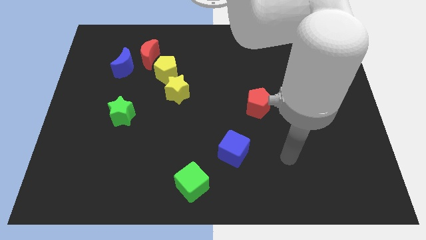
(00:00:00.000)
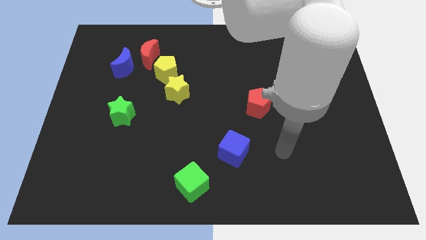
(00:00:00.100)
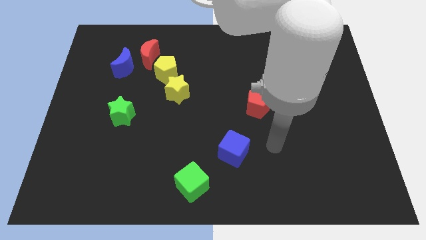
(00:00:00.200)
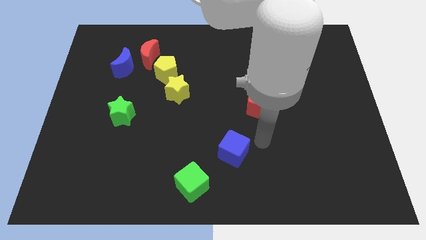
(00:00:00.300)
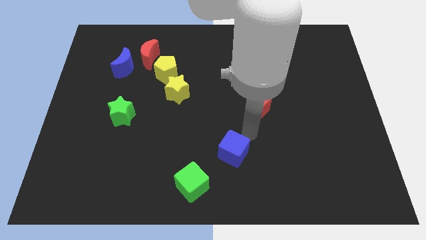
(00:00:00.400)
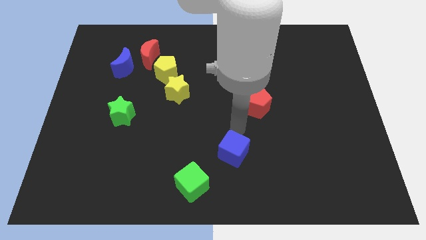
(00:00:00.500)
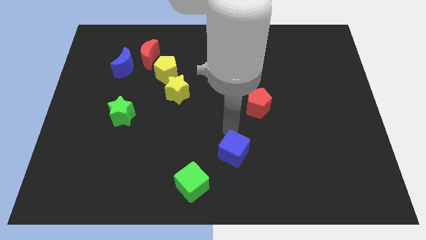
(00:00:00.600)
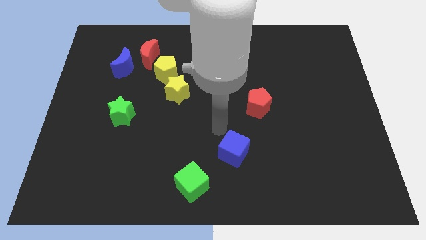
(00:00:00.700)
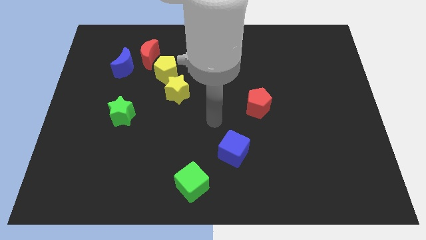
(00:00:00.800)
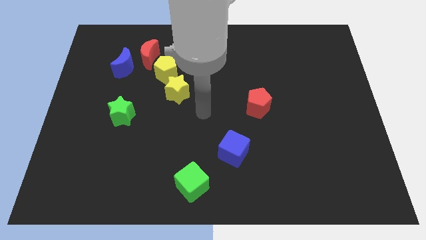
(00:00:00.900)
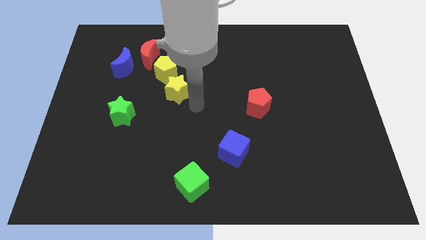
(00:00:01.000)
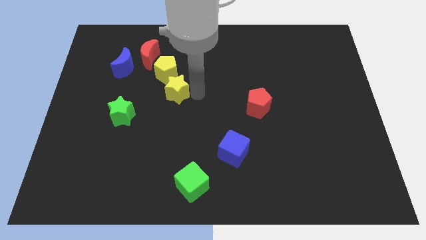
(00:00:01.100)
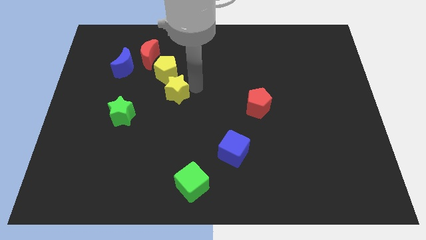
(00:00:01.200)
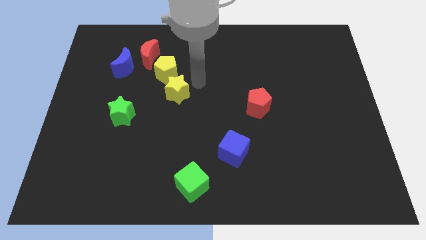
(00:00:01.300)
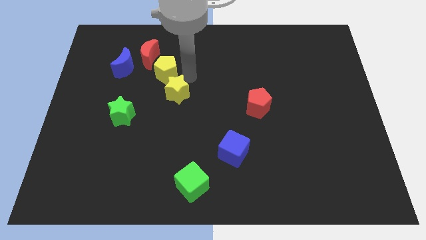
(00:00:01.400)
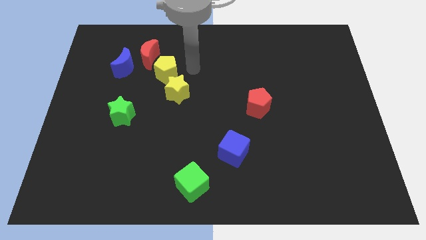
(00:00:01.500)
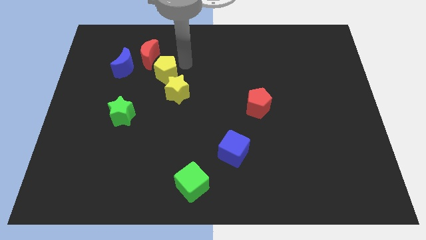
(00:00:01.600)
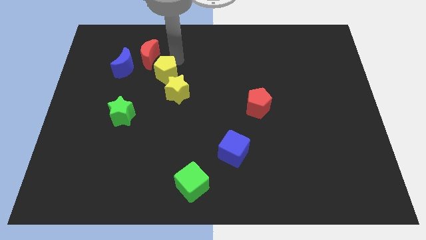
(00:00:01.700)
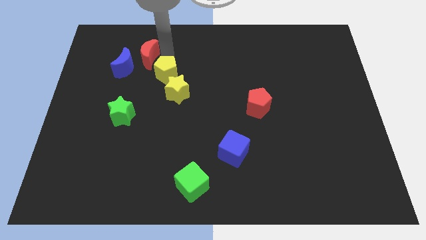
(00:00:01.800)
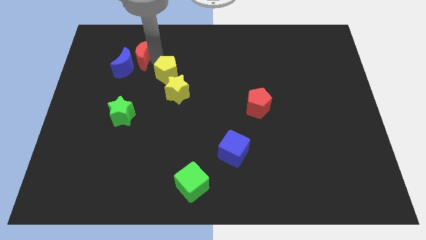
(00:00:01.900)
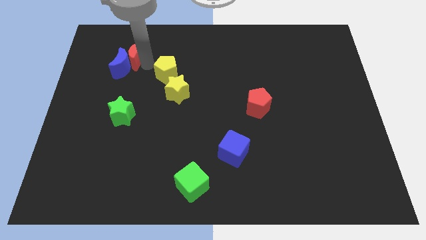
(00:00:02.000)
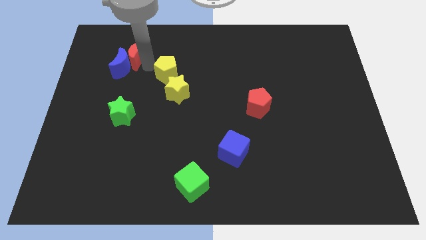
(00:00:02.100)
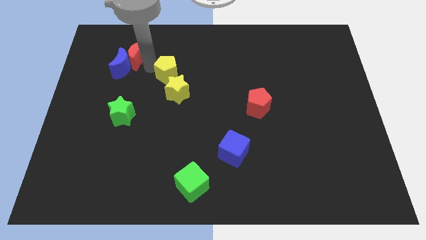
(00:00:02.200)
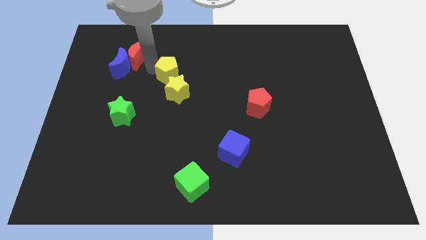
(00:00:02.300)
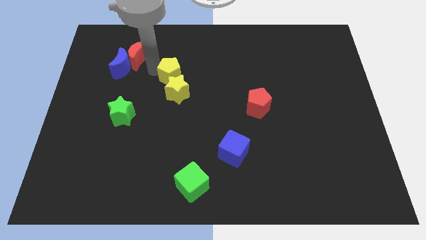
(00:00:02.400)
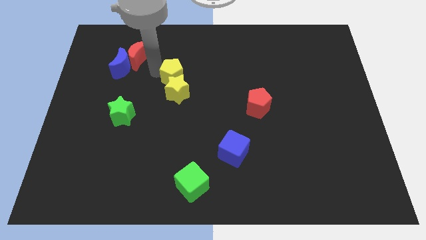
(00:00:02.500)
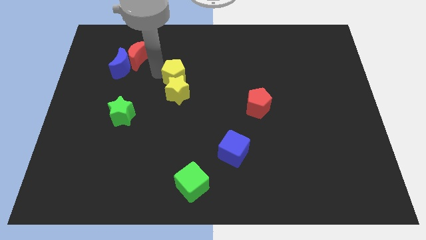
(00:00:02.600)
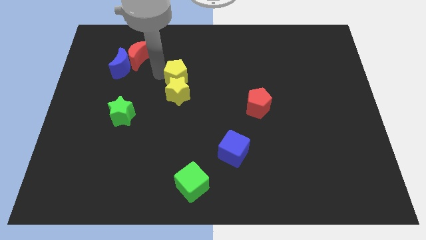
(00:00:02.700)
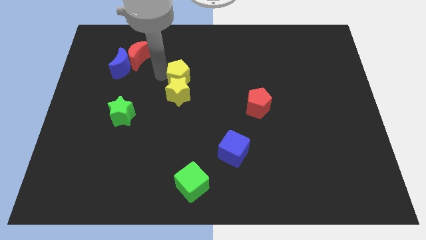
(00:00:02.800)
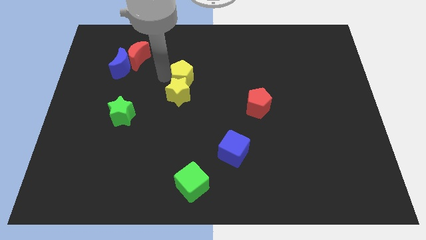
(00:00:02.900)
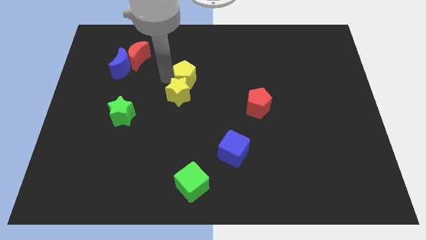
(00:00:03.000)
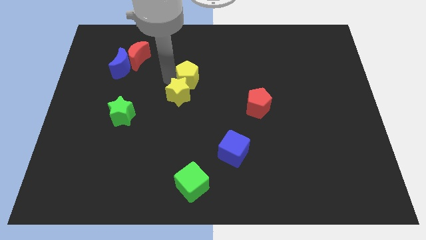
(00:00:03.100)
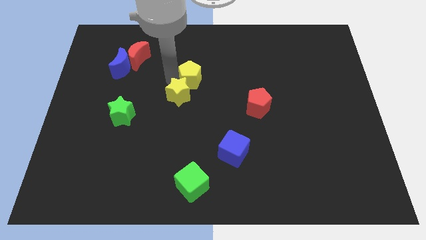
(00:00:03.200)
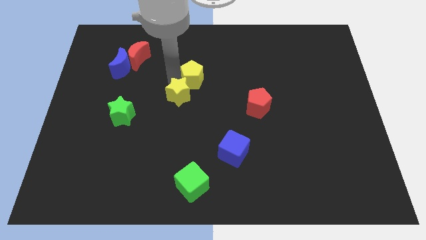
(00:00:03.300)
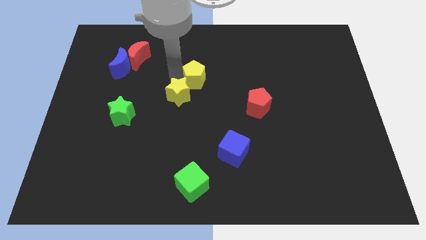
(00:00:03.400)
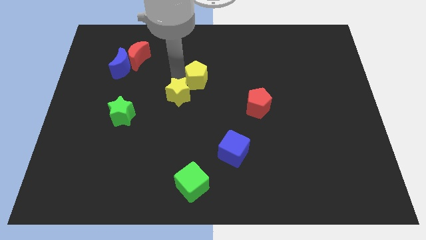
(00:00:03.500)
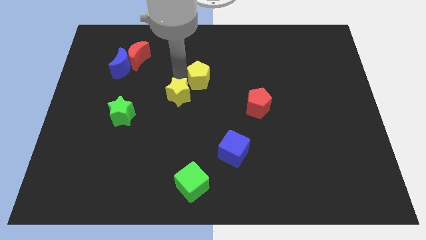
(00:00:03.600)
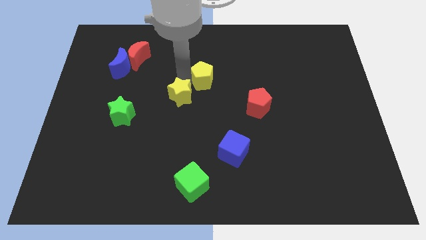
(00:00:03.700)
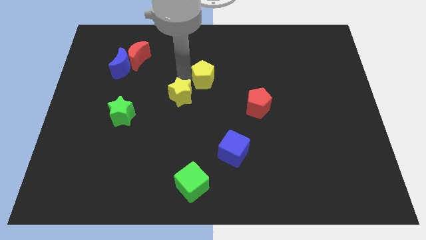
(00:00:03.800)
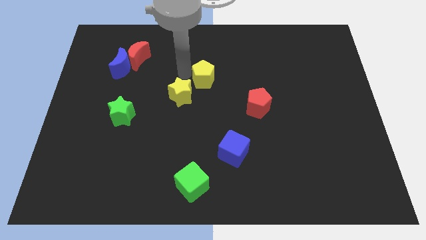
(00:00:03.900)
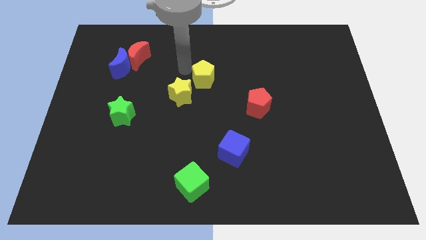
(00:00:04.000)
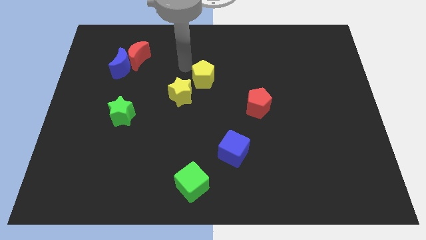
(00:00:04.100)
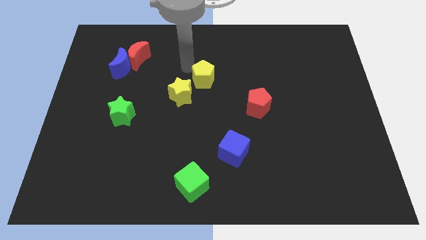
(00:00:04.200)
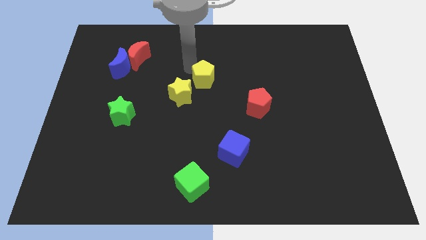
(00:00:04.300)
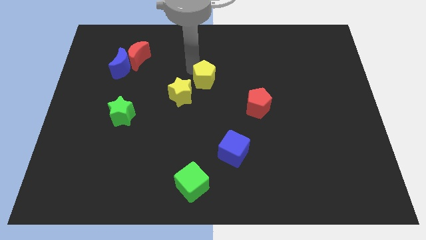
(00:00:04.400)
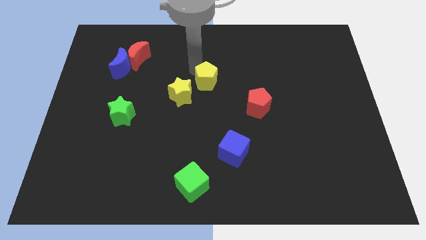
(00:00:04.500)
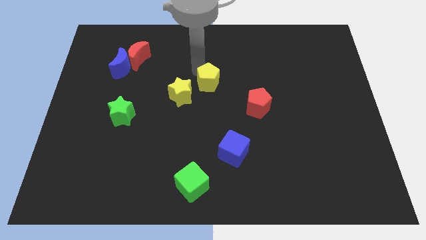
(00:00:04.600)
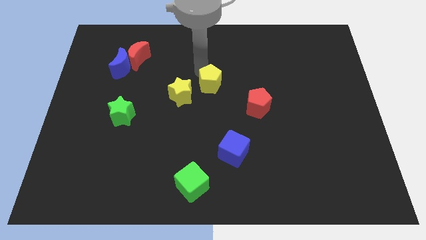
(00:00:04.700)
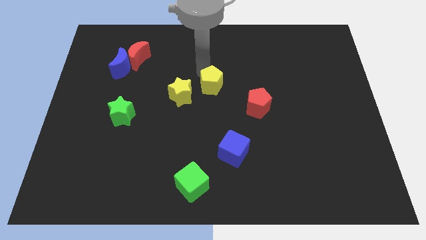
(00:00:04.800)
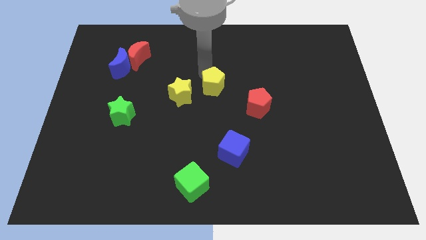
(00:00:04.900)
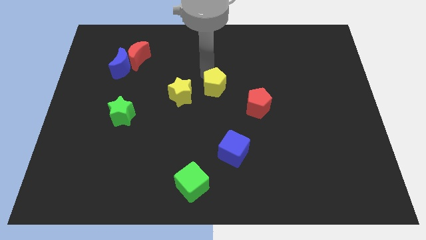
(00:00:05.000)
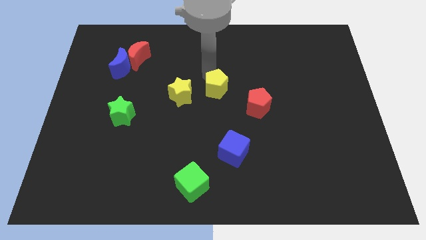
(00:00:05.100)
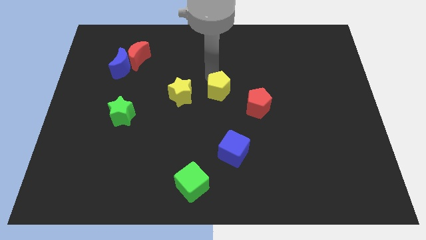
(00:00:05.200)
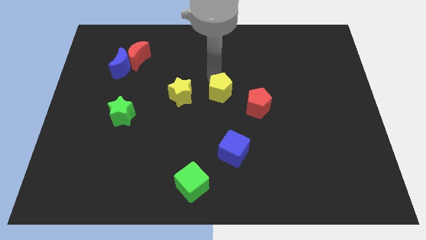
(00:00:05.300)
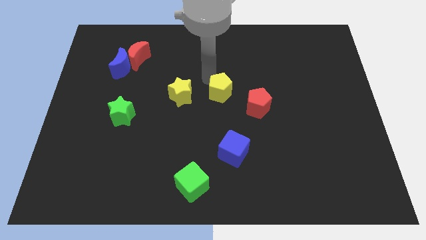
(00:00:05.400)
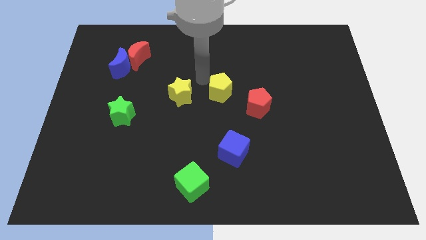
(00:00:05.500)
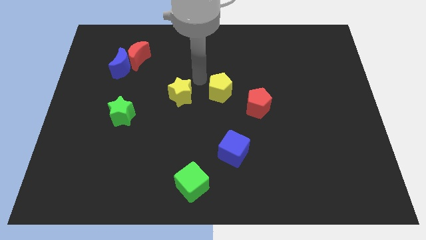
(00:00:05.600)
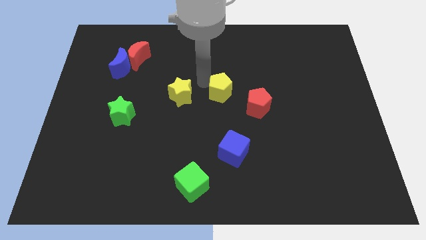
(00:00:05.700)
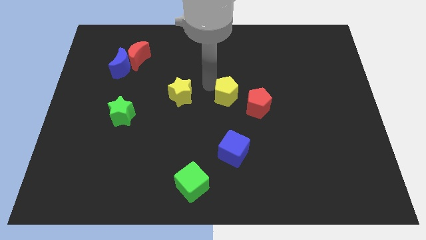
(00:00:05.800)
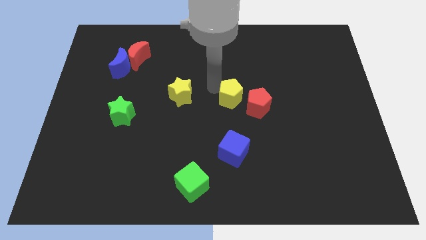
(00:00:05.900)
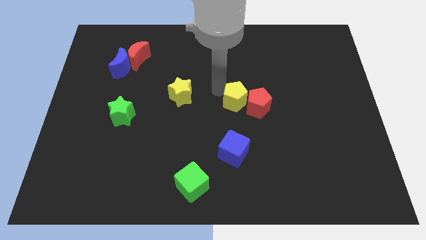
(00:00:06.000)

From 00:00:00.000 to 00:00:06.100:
push the yellow pentagon close to the red pentagon

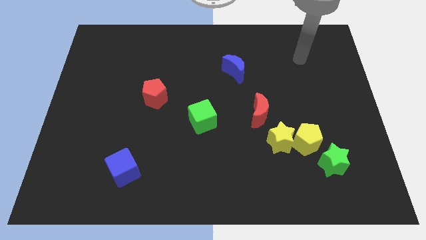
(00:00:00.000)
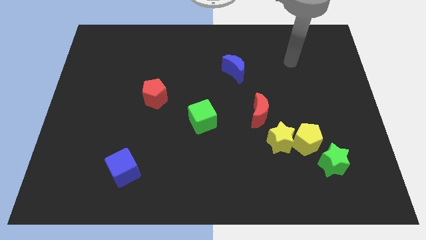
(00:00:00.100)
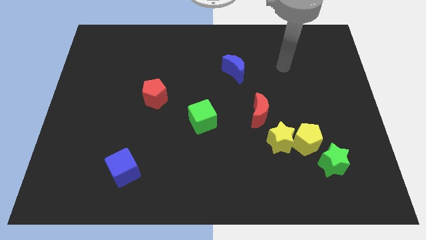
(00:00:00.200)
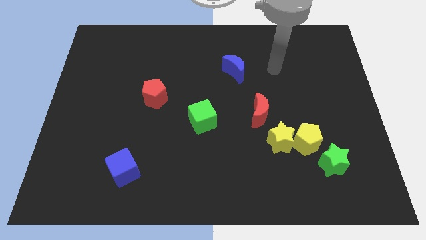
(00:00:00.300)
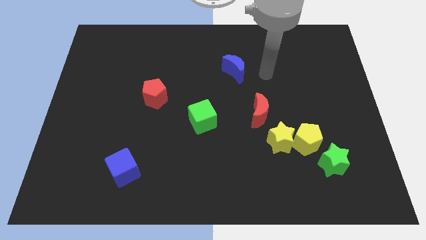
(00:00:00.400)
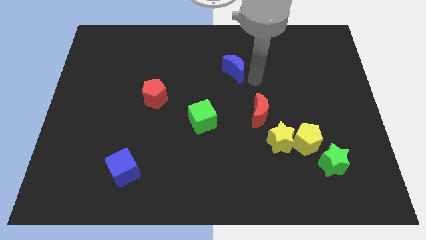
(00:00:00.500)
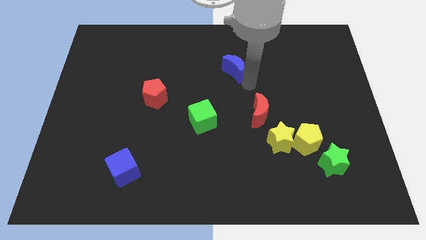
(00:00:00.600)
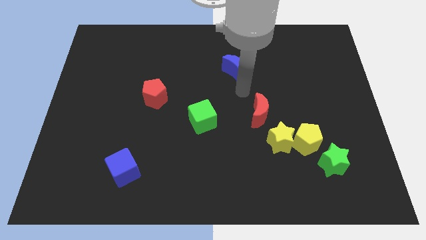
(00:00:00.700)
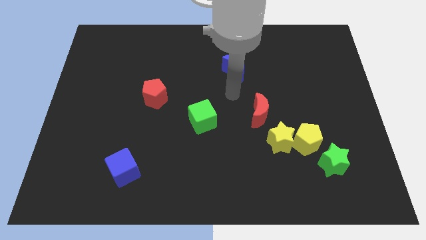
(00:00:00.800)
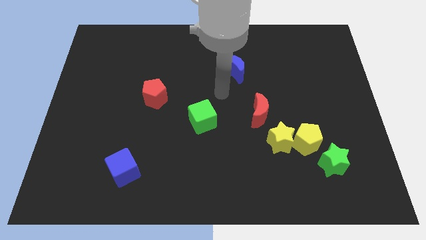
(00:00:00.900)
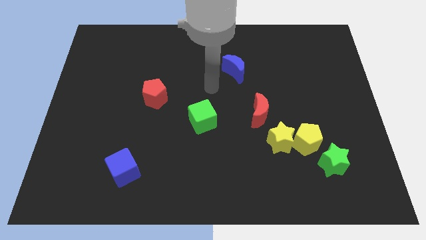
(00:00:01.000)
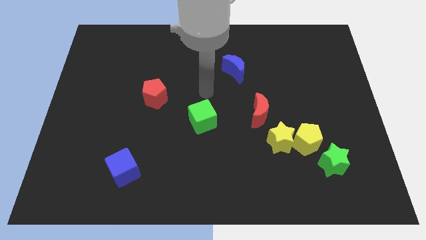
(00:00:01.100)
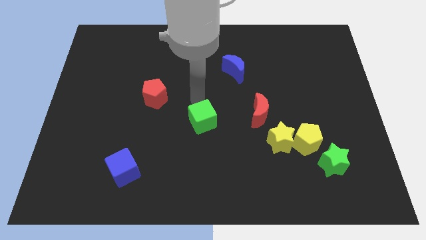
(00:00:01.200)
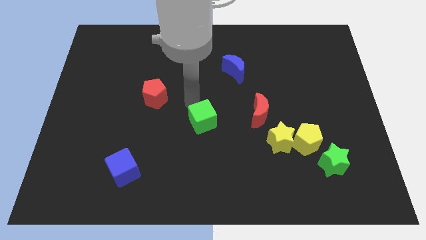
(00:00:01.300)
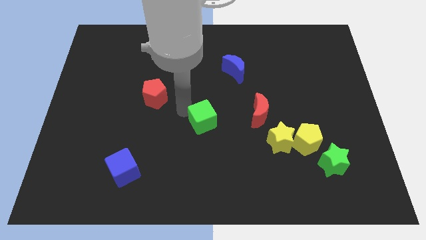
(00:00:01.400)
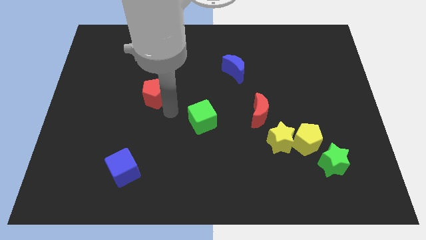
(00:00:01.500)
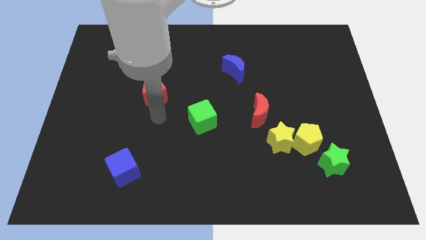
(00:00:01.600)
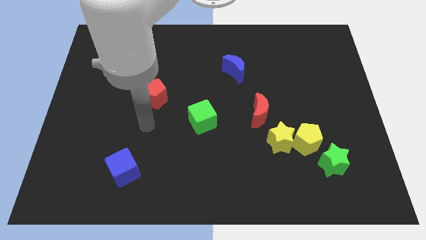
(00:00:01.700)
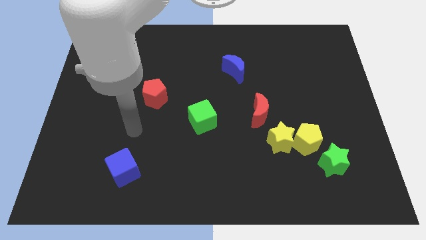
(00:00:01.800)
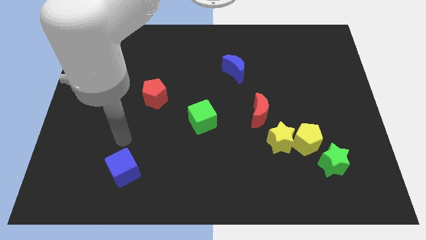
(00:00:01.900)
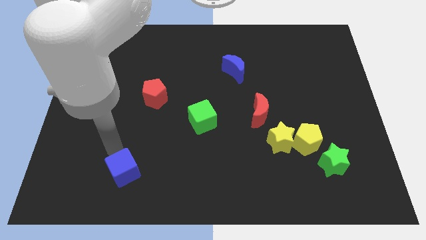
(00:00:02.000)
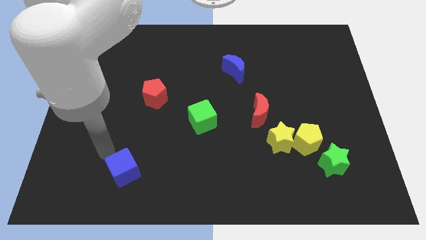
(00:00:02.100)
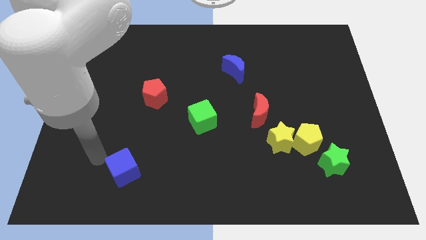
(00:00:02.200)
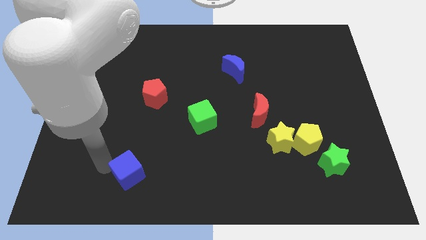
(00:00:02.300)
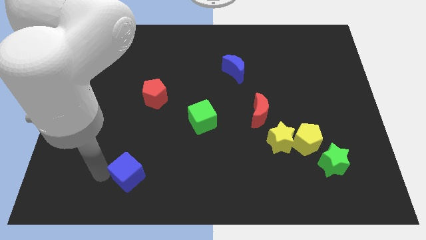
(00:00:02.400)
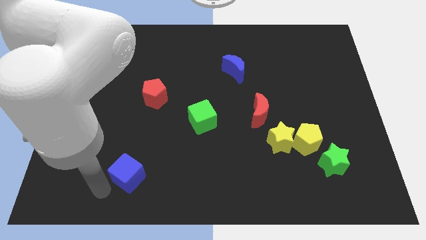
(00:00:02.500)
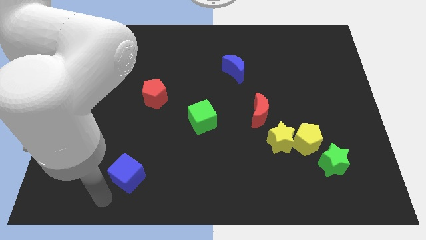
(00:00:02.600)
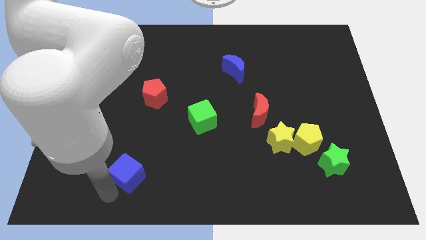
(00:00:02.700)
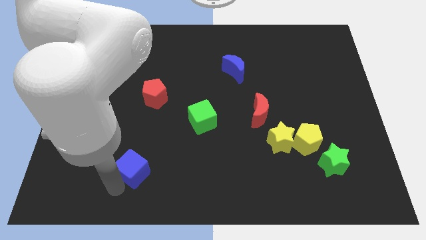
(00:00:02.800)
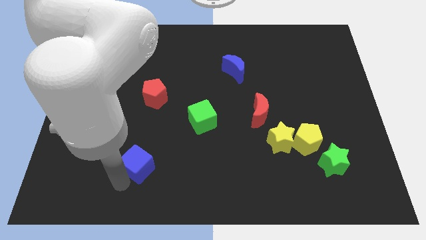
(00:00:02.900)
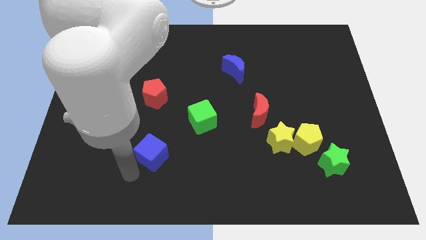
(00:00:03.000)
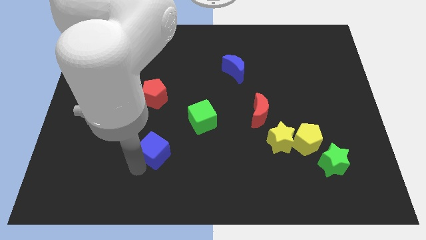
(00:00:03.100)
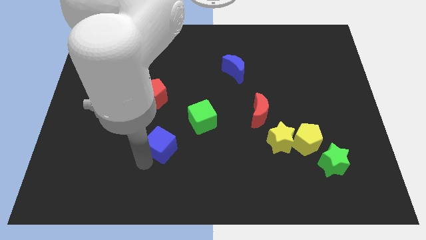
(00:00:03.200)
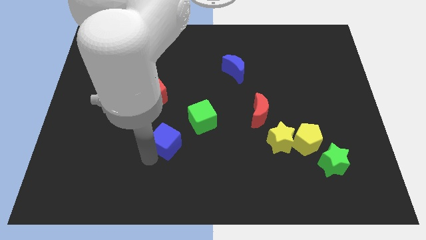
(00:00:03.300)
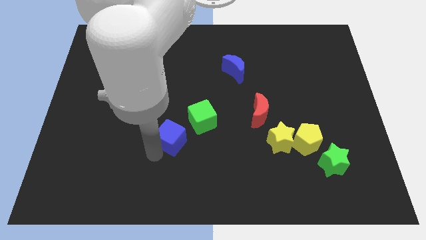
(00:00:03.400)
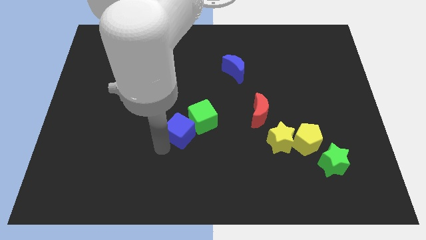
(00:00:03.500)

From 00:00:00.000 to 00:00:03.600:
put the blue cube towards the green cube
